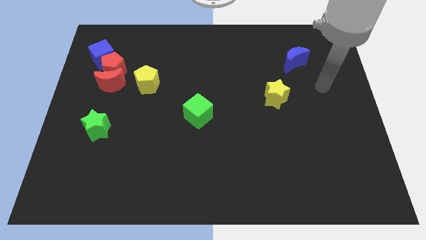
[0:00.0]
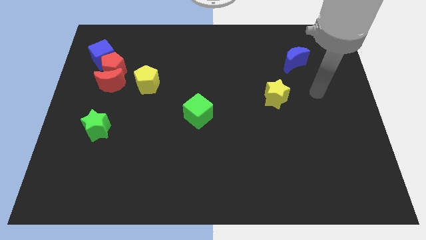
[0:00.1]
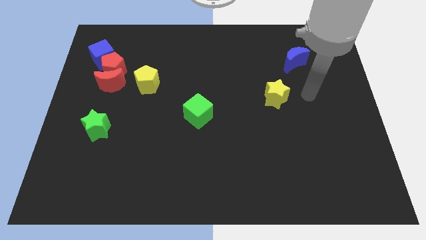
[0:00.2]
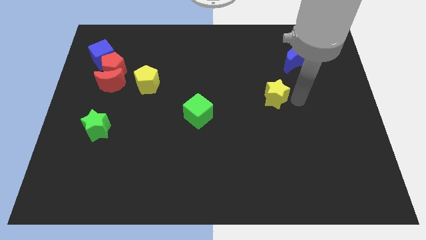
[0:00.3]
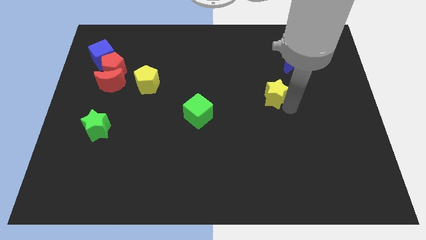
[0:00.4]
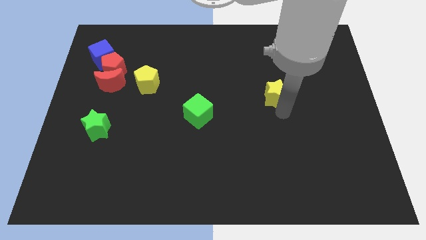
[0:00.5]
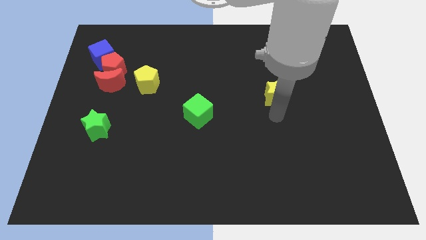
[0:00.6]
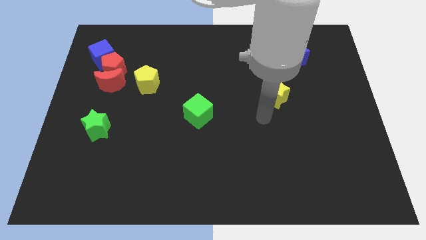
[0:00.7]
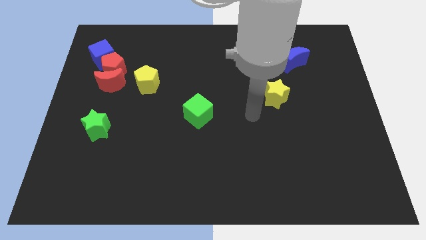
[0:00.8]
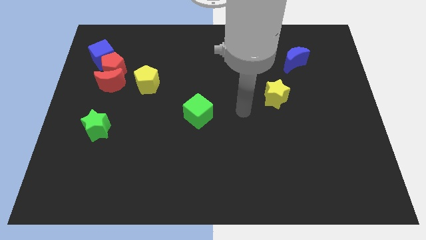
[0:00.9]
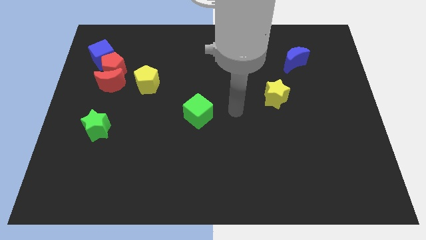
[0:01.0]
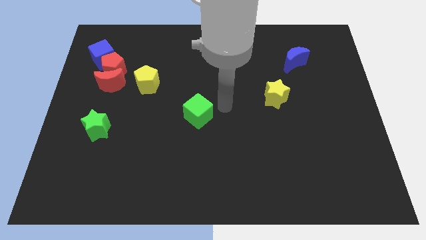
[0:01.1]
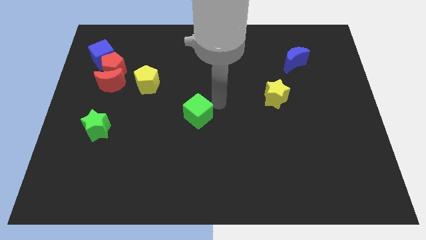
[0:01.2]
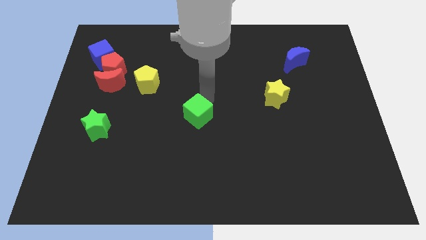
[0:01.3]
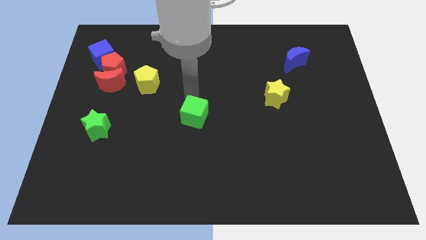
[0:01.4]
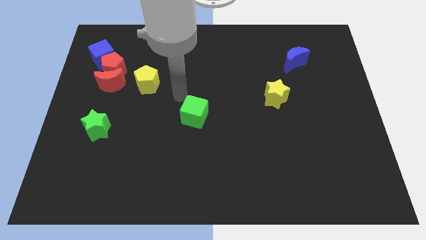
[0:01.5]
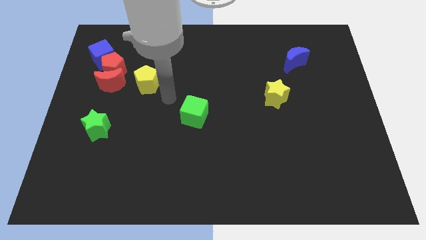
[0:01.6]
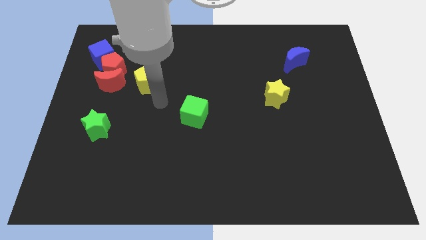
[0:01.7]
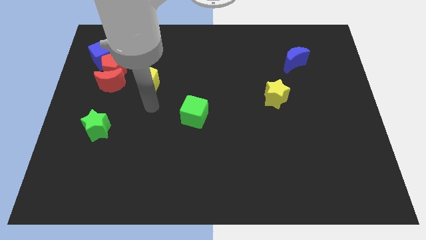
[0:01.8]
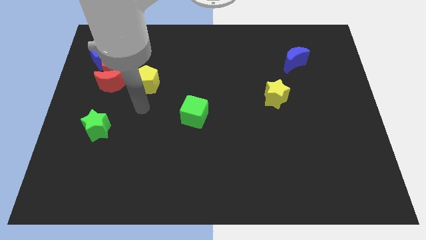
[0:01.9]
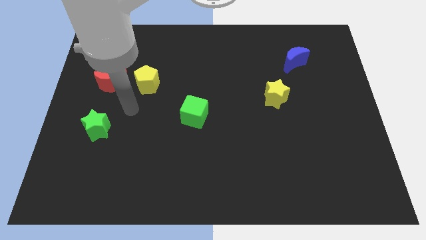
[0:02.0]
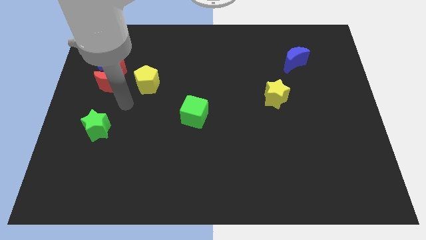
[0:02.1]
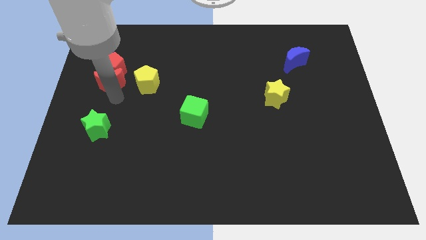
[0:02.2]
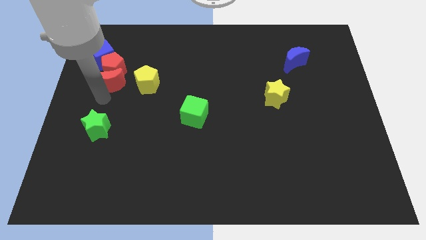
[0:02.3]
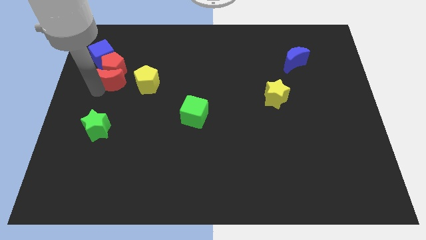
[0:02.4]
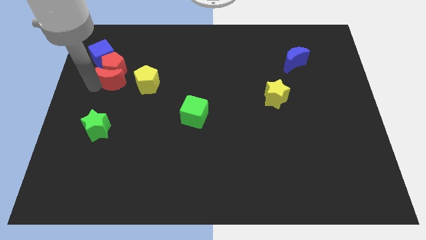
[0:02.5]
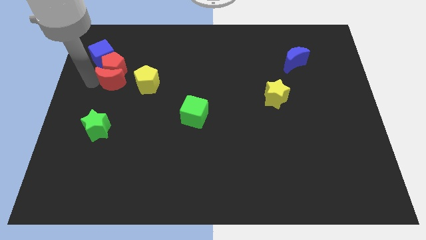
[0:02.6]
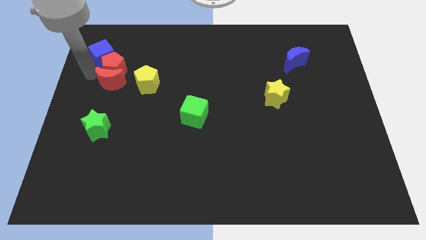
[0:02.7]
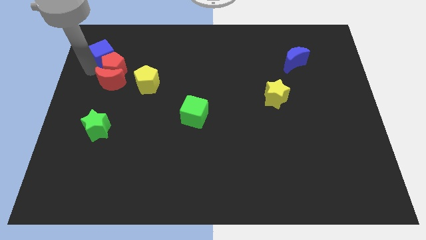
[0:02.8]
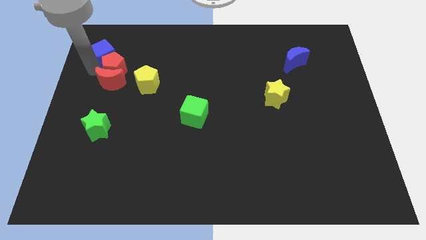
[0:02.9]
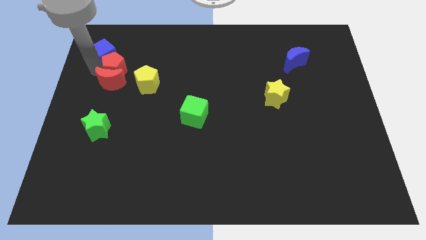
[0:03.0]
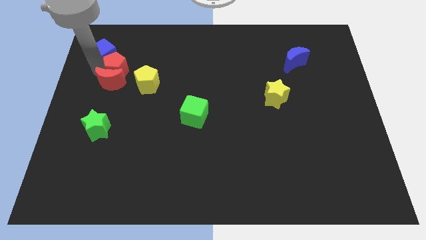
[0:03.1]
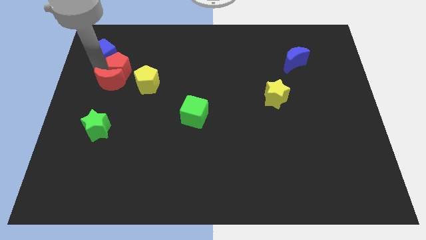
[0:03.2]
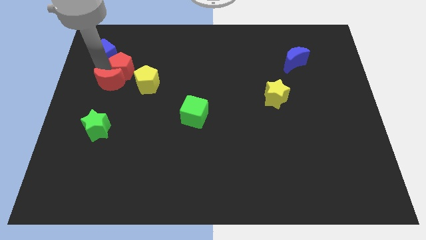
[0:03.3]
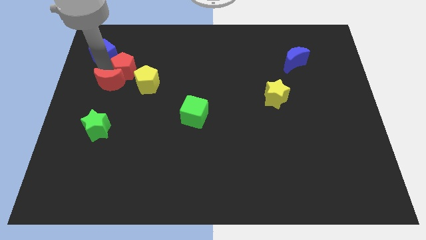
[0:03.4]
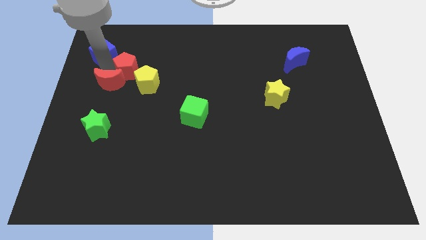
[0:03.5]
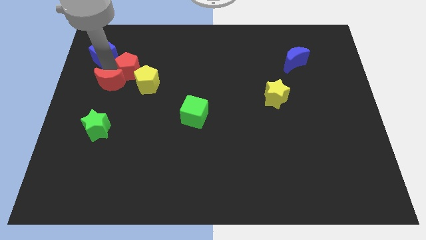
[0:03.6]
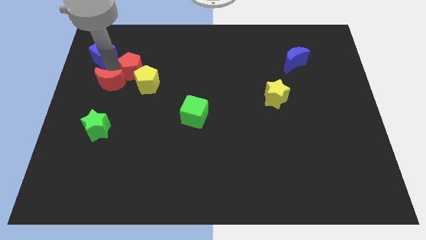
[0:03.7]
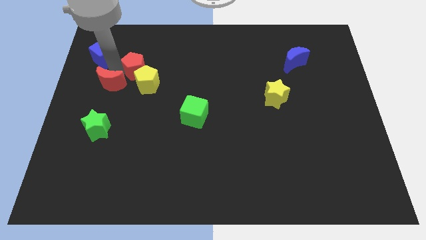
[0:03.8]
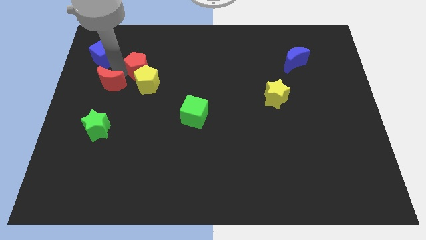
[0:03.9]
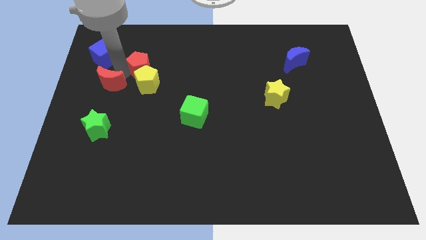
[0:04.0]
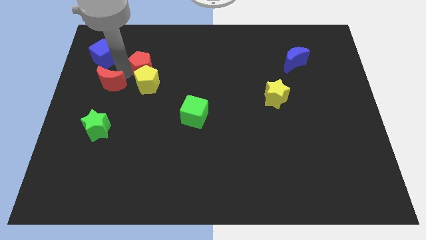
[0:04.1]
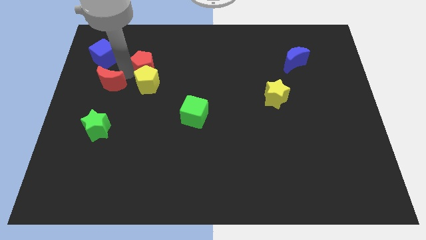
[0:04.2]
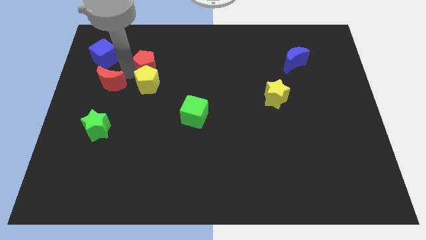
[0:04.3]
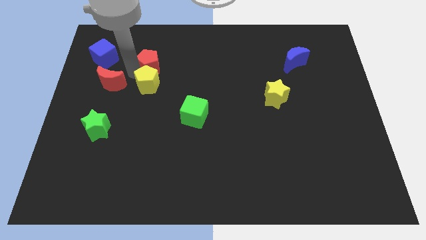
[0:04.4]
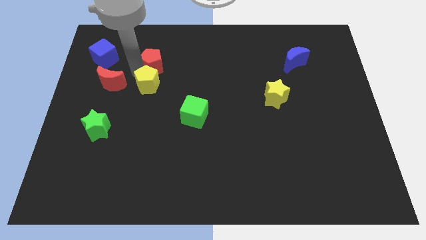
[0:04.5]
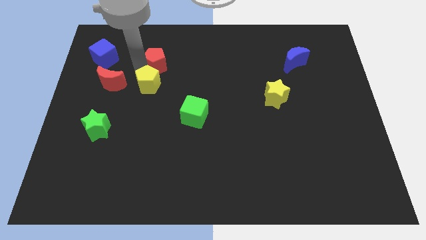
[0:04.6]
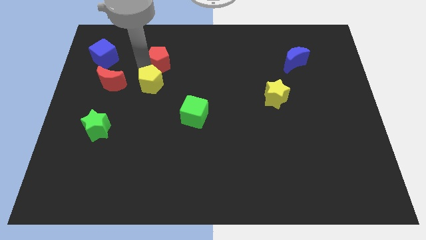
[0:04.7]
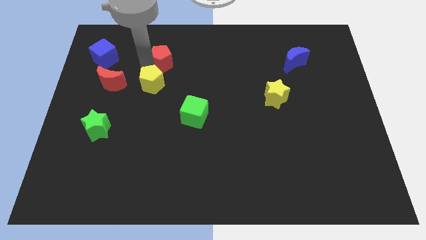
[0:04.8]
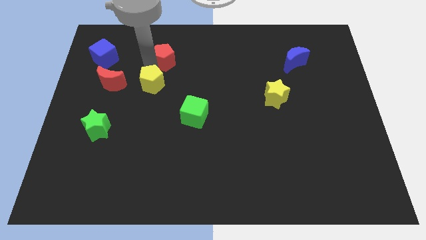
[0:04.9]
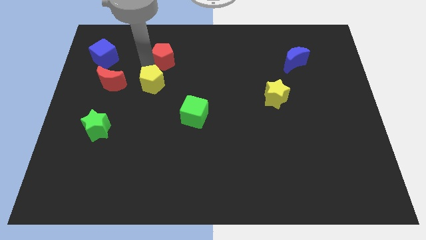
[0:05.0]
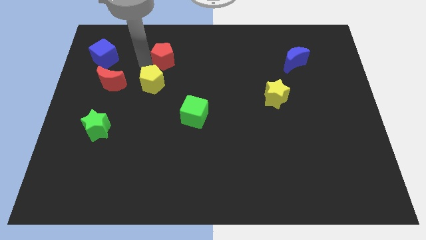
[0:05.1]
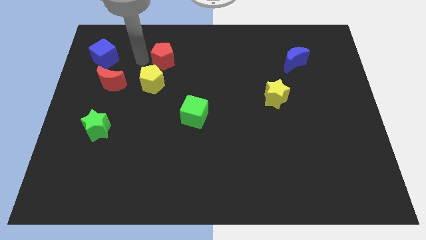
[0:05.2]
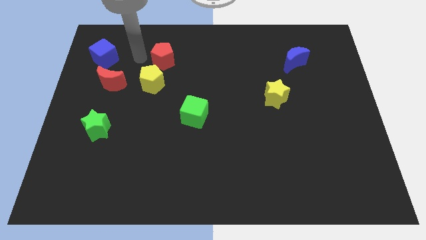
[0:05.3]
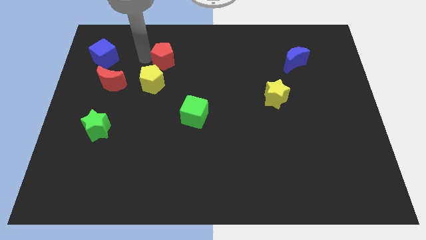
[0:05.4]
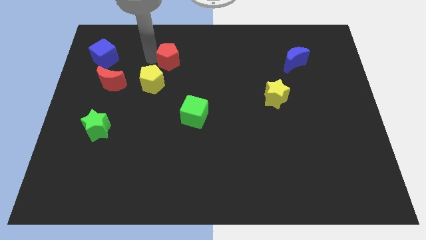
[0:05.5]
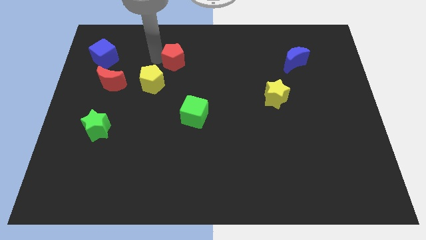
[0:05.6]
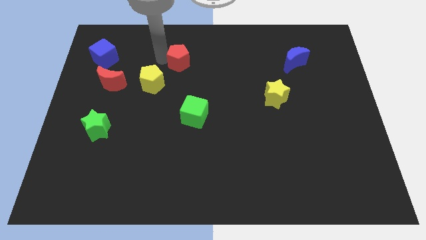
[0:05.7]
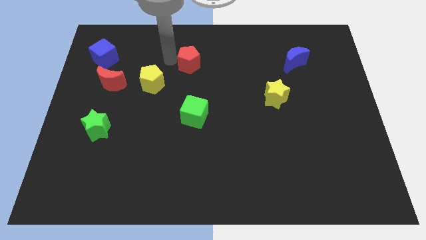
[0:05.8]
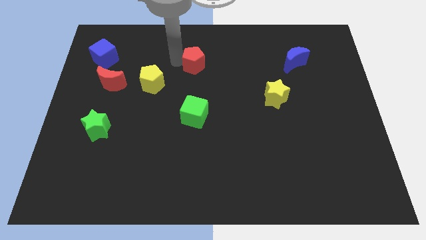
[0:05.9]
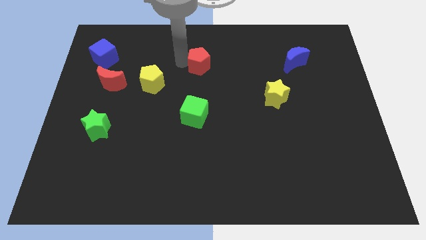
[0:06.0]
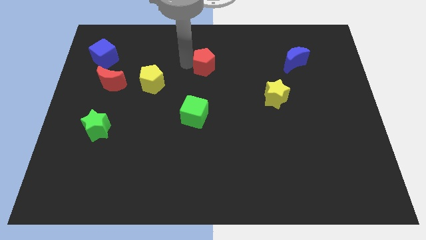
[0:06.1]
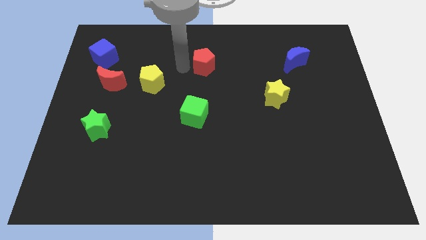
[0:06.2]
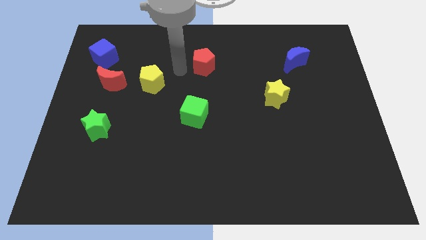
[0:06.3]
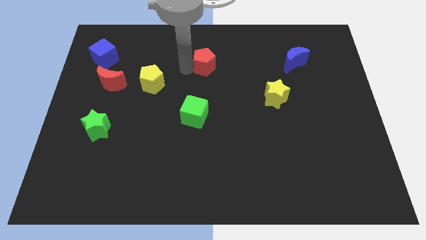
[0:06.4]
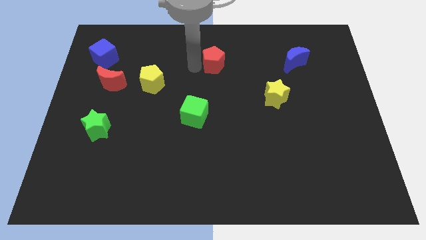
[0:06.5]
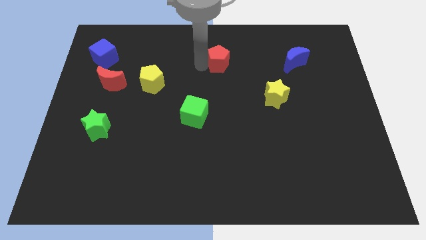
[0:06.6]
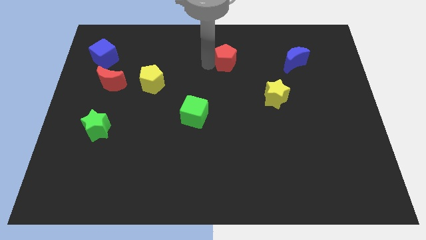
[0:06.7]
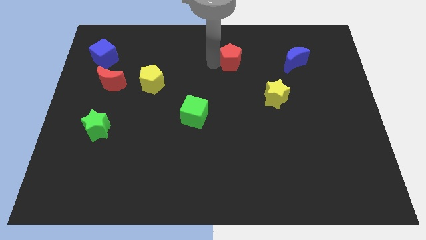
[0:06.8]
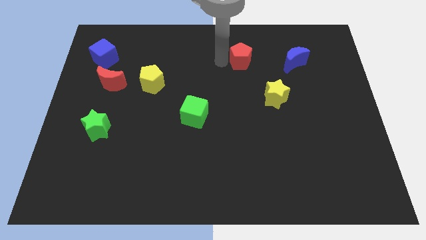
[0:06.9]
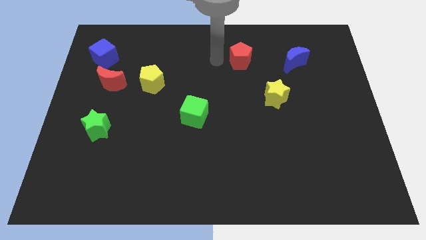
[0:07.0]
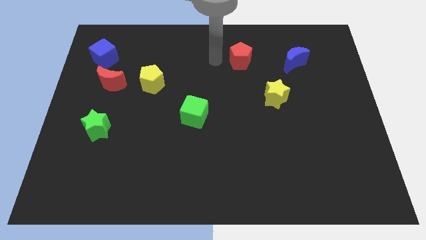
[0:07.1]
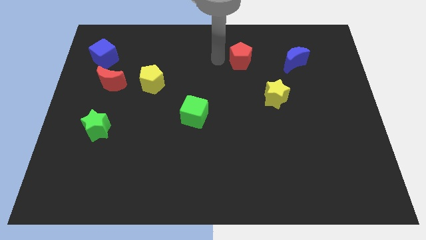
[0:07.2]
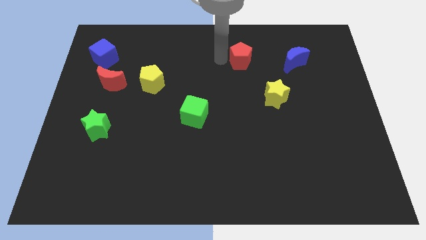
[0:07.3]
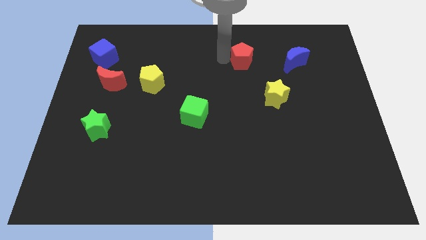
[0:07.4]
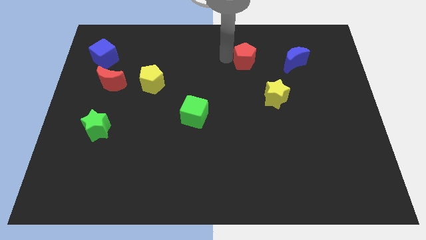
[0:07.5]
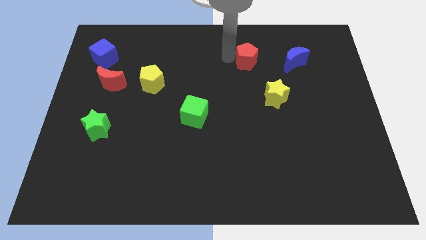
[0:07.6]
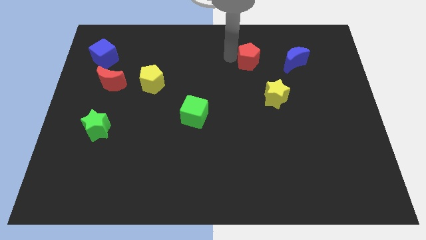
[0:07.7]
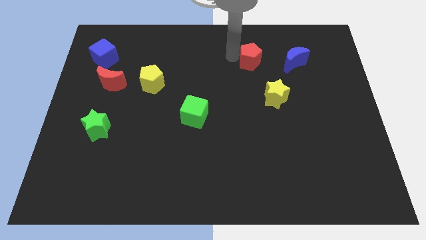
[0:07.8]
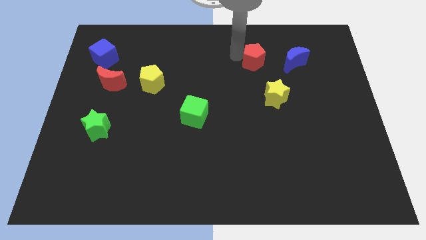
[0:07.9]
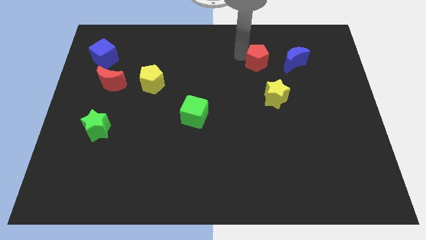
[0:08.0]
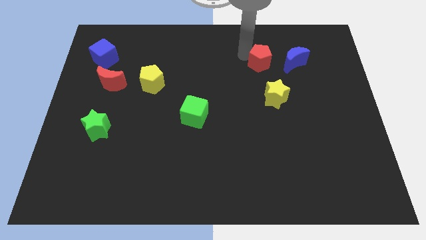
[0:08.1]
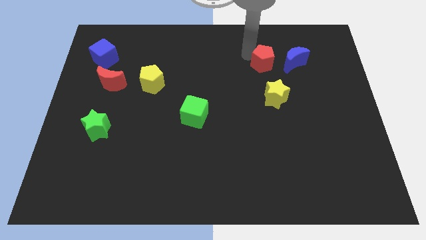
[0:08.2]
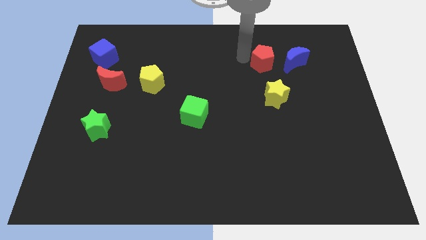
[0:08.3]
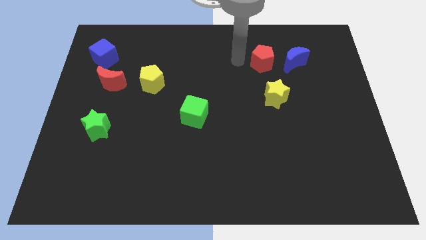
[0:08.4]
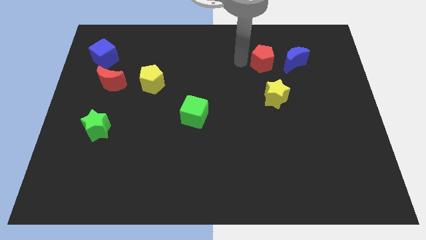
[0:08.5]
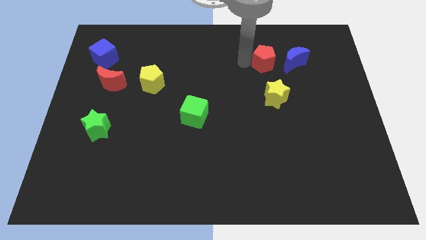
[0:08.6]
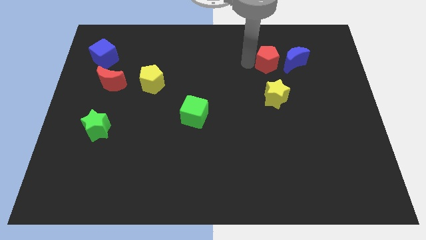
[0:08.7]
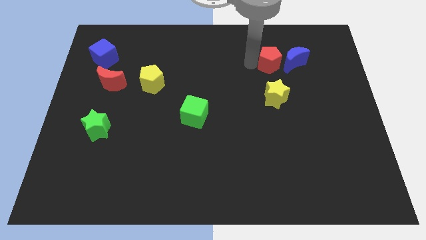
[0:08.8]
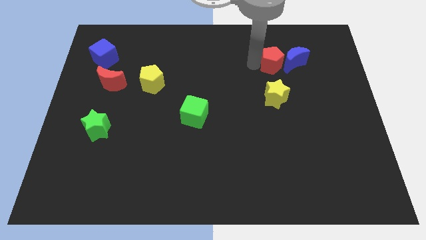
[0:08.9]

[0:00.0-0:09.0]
put the red pentagon towards the blue moon
